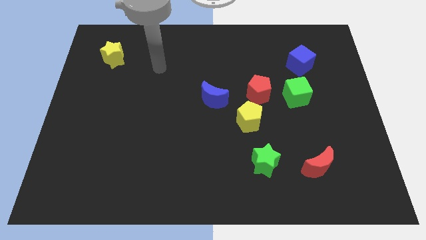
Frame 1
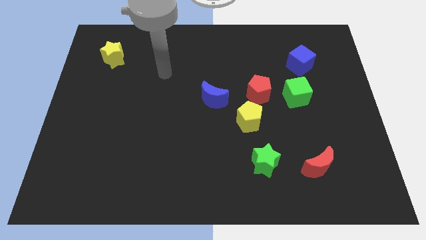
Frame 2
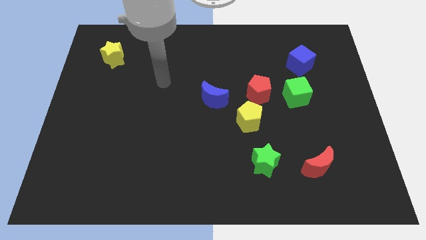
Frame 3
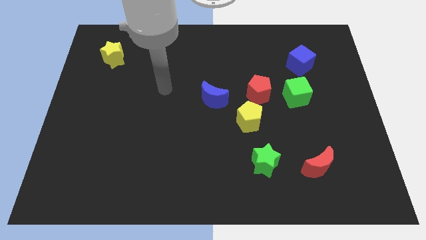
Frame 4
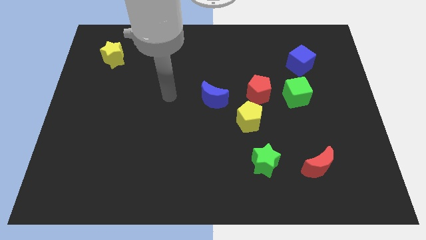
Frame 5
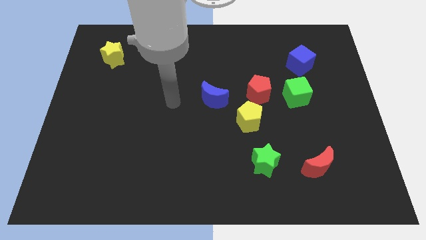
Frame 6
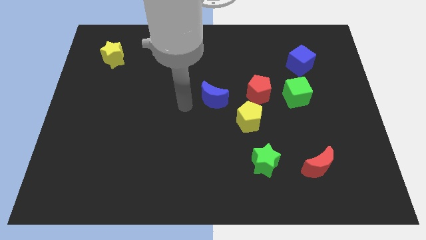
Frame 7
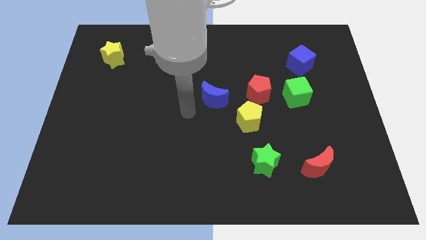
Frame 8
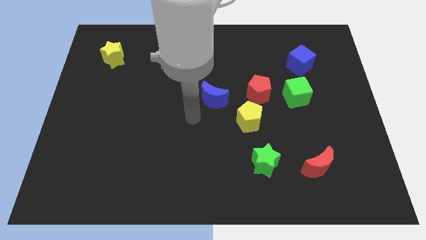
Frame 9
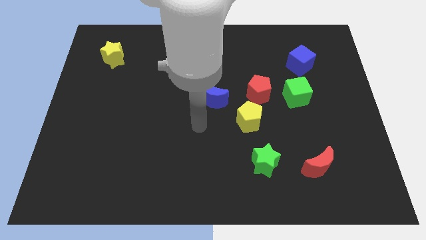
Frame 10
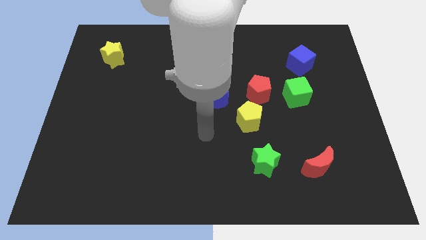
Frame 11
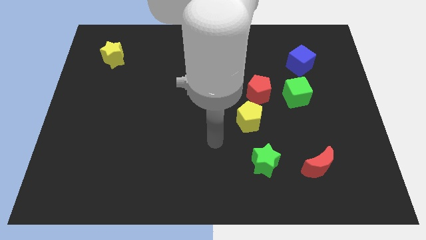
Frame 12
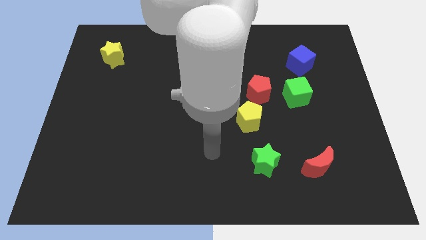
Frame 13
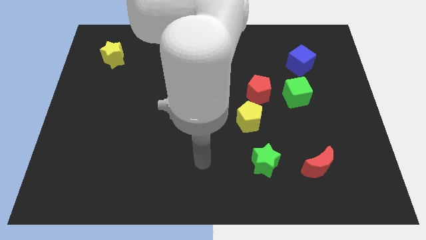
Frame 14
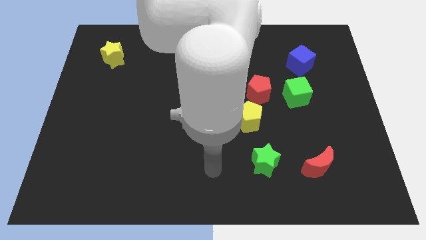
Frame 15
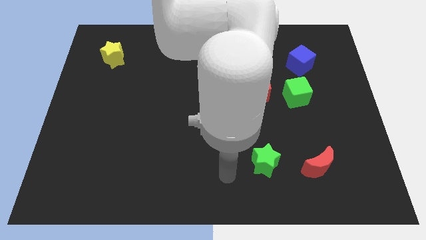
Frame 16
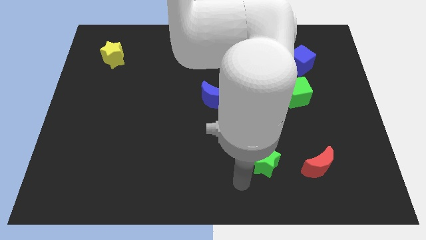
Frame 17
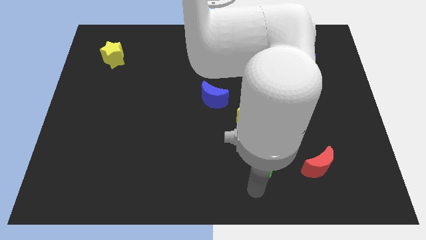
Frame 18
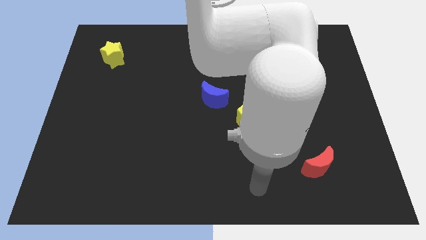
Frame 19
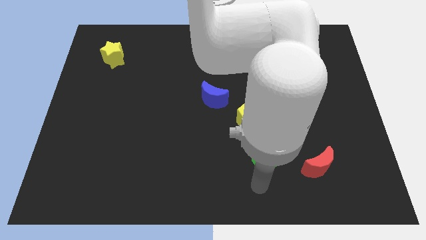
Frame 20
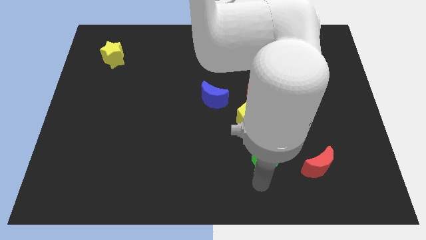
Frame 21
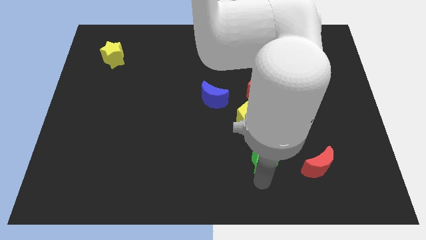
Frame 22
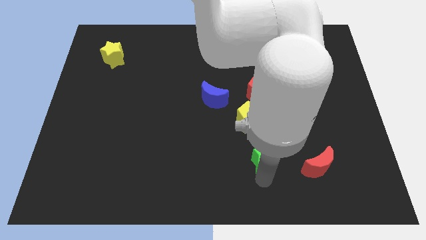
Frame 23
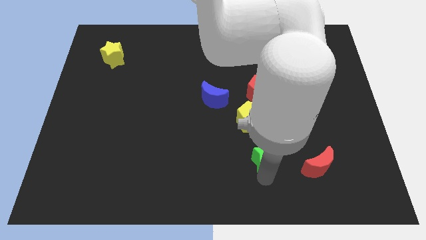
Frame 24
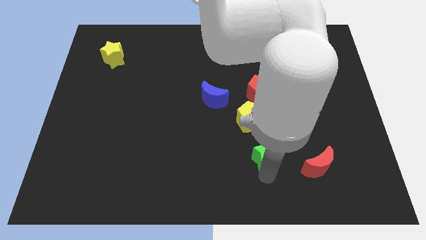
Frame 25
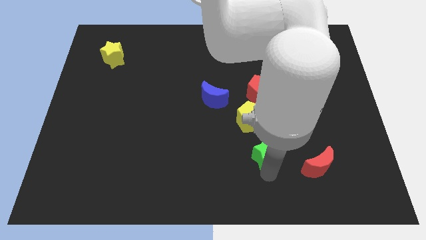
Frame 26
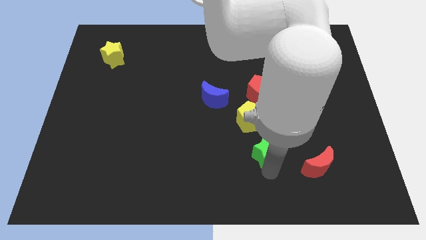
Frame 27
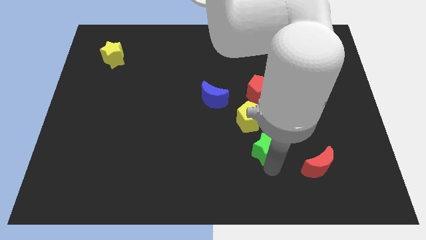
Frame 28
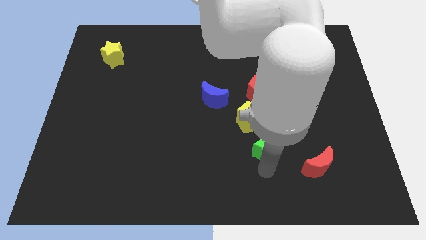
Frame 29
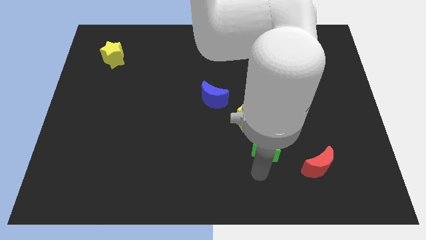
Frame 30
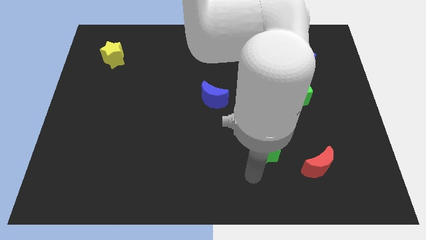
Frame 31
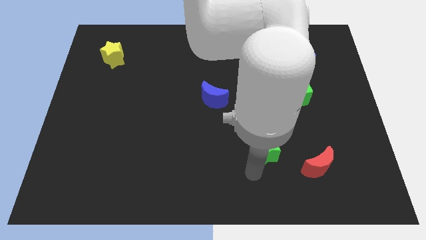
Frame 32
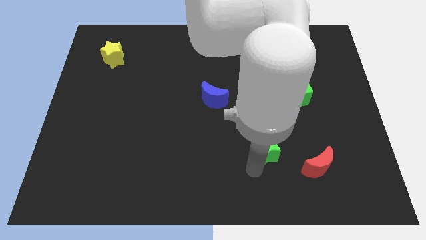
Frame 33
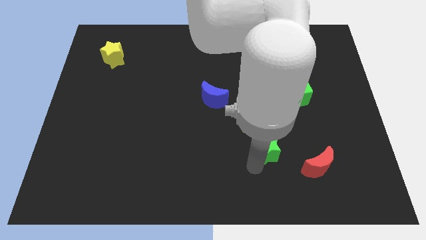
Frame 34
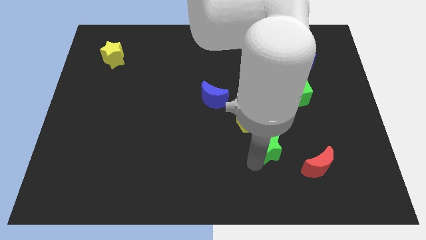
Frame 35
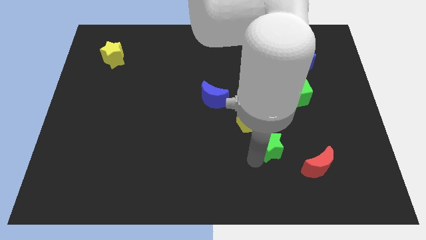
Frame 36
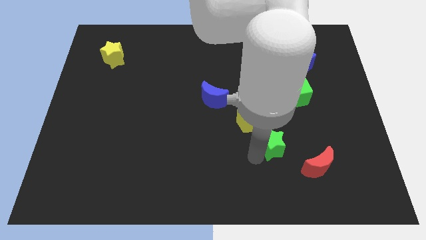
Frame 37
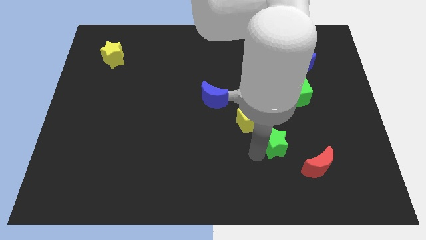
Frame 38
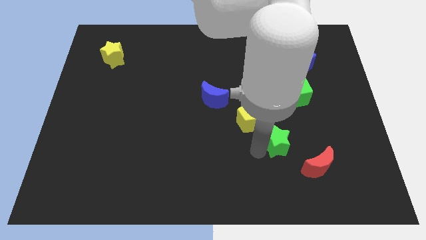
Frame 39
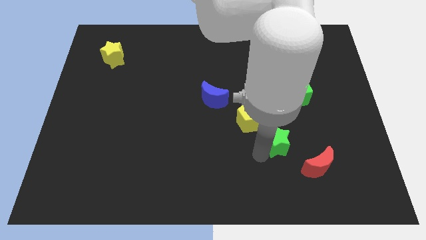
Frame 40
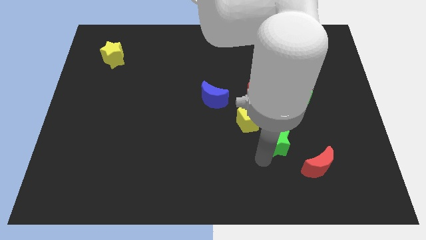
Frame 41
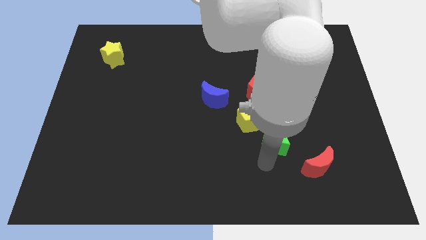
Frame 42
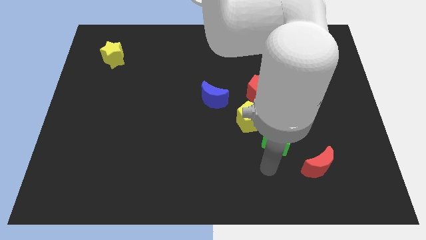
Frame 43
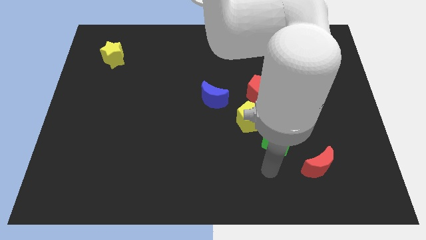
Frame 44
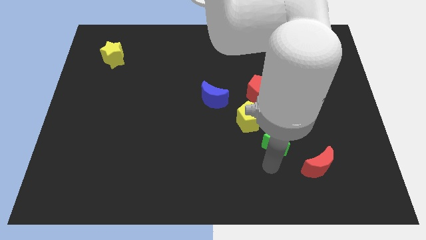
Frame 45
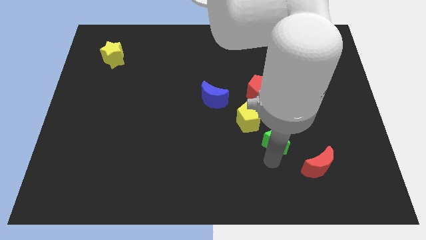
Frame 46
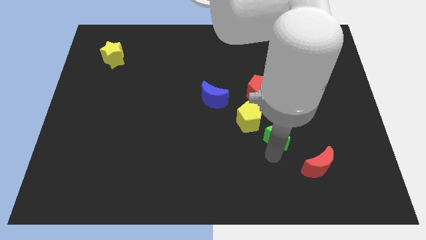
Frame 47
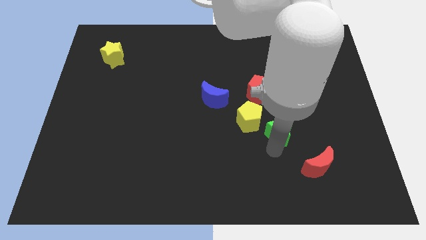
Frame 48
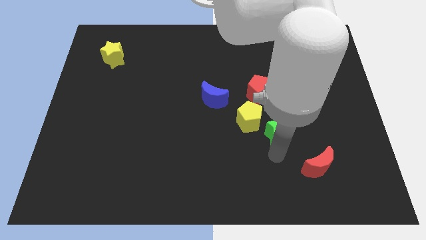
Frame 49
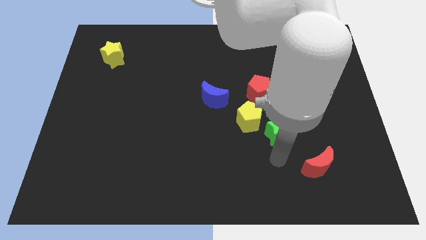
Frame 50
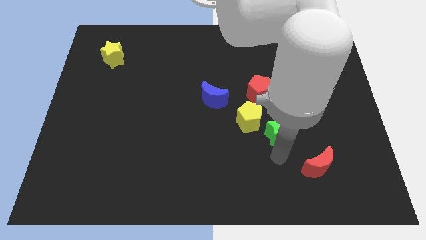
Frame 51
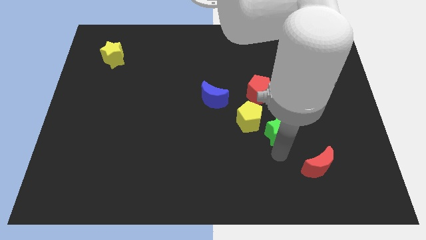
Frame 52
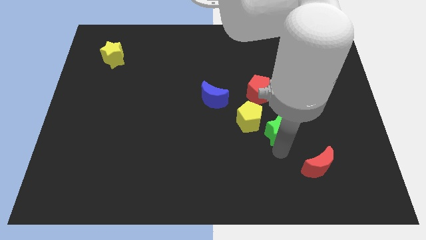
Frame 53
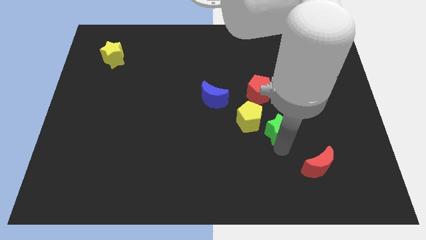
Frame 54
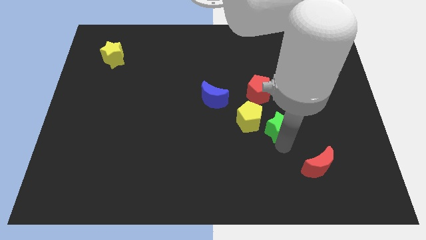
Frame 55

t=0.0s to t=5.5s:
slide the green star diagonally down and to the left of the green cube

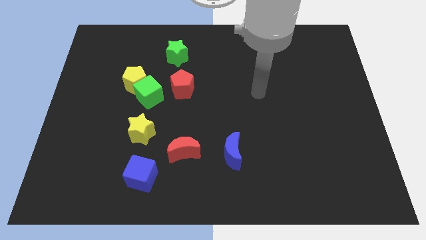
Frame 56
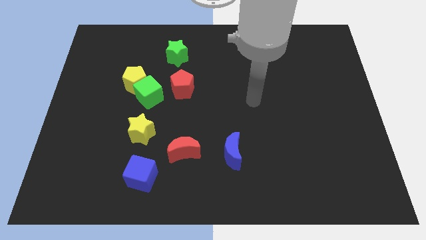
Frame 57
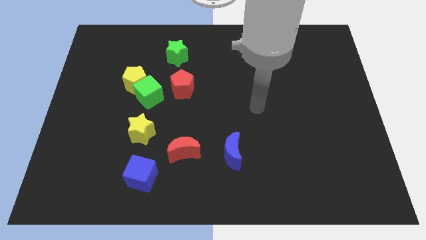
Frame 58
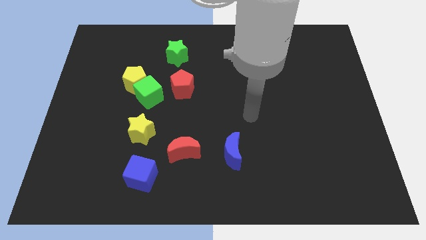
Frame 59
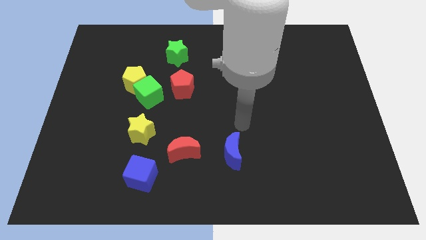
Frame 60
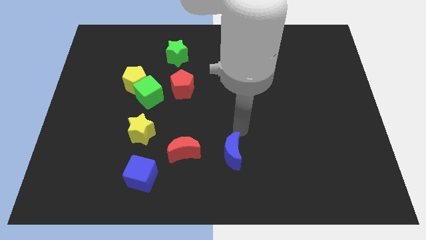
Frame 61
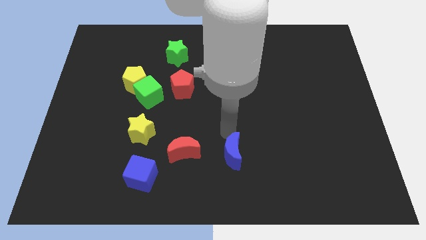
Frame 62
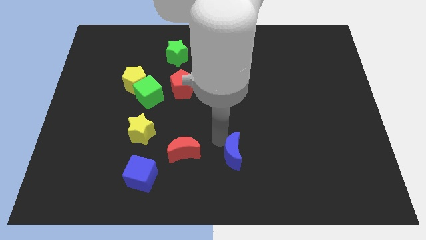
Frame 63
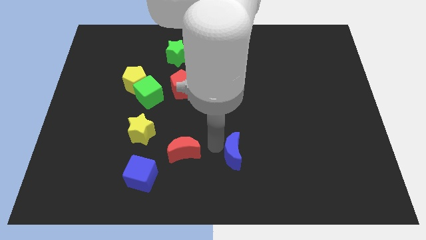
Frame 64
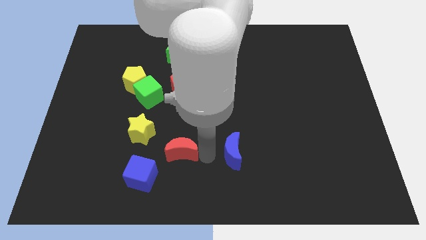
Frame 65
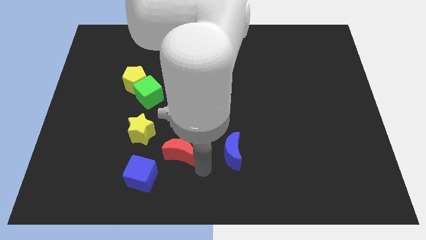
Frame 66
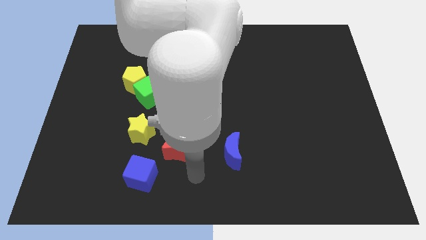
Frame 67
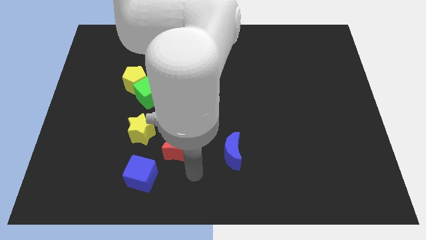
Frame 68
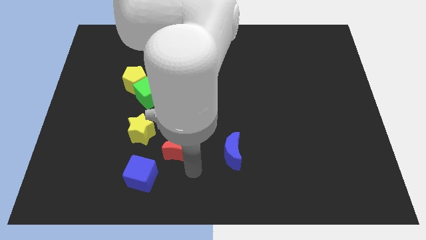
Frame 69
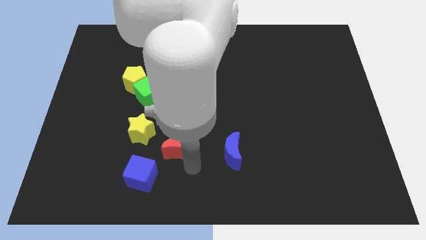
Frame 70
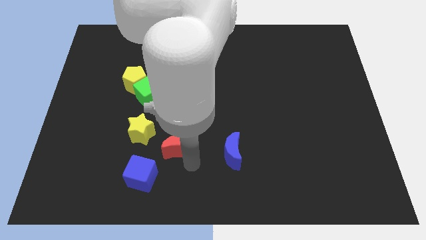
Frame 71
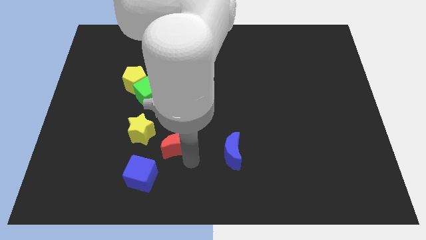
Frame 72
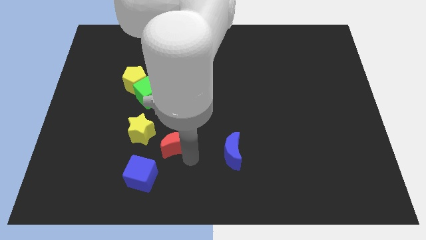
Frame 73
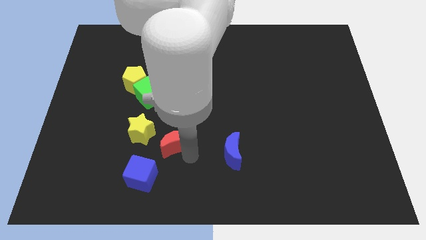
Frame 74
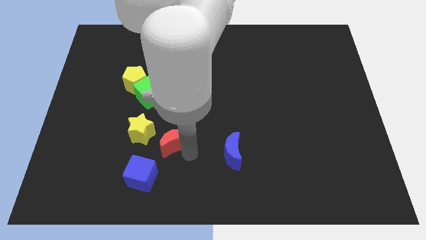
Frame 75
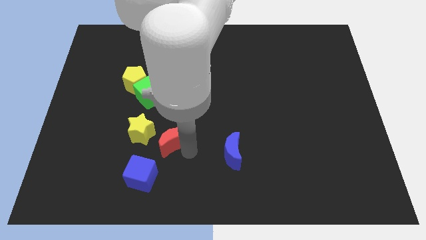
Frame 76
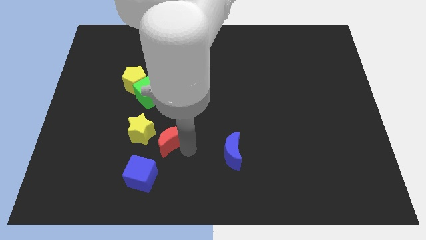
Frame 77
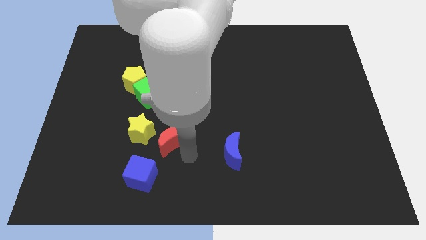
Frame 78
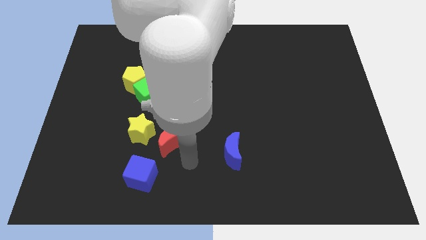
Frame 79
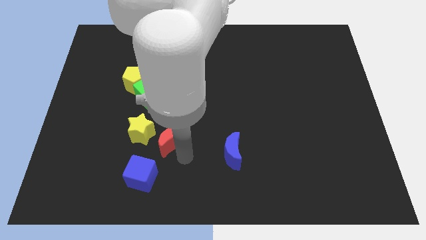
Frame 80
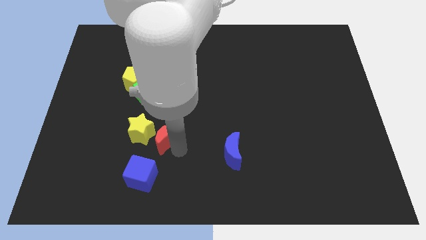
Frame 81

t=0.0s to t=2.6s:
move the red moon above the blue cube
